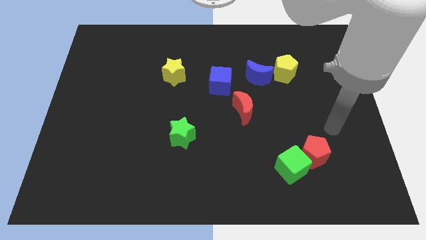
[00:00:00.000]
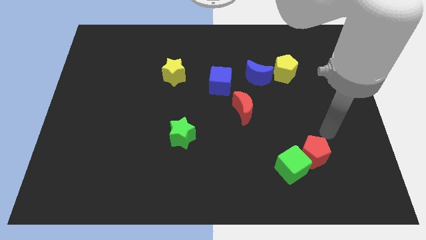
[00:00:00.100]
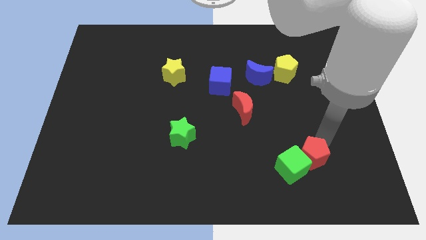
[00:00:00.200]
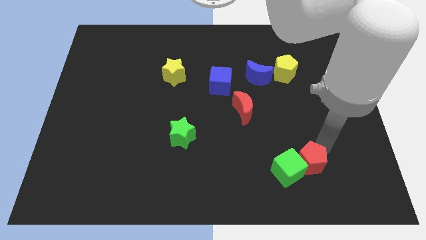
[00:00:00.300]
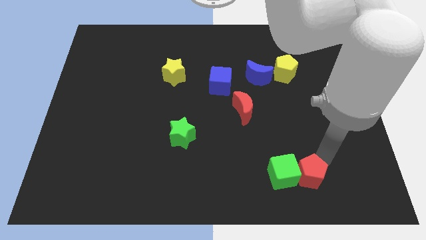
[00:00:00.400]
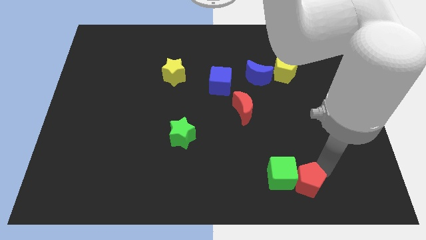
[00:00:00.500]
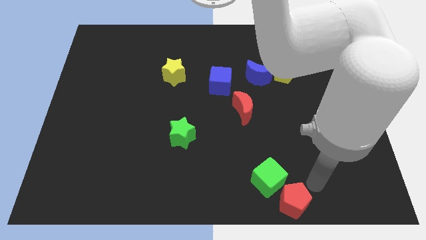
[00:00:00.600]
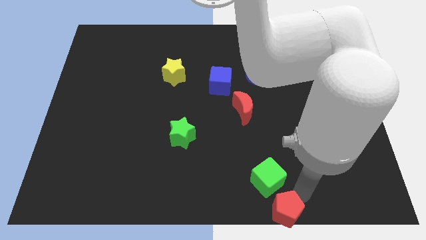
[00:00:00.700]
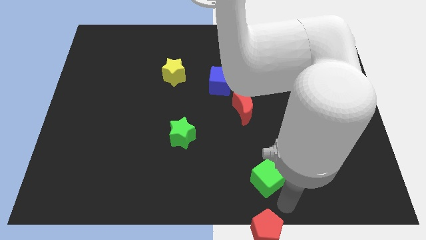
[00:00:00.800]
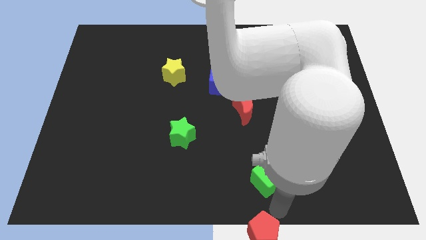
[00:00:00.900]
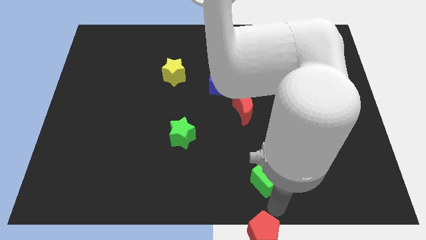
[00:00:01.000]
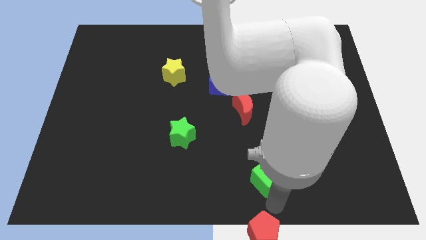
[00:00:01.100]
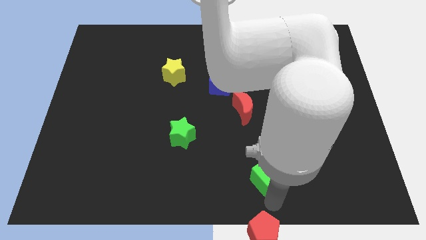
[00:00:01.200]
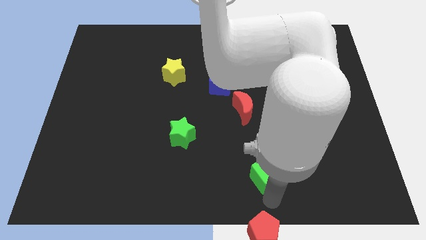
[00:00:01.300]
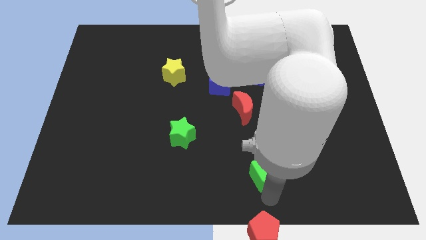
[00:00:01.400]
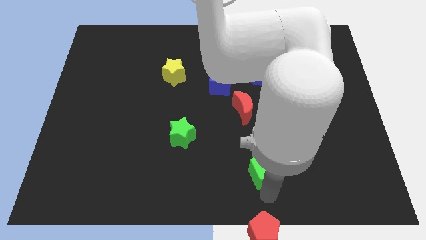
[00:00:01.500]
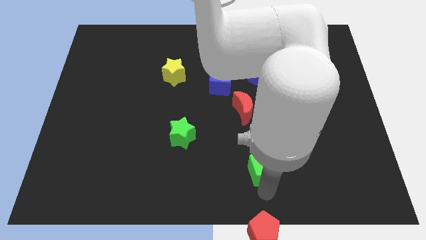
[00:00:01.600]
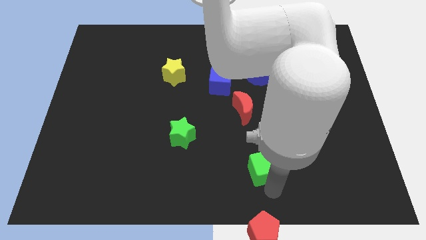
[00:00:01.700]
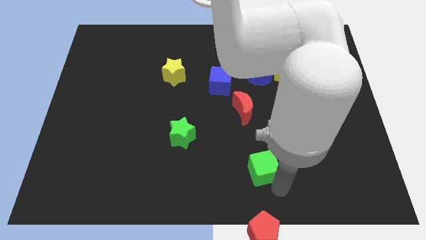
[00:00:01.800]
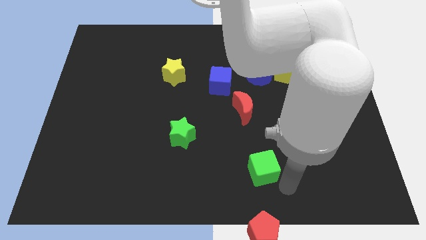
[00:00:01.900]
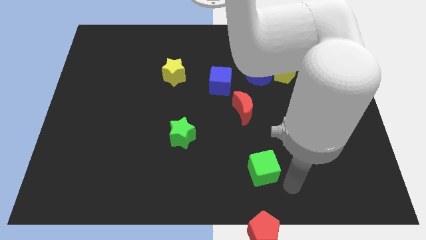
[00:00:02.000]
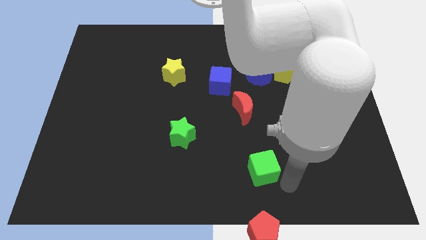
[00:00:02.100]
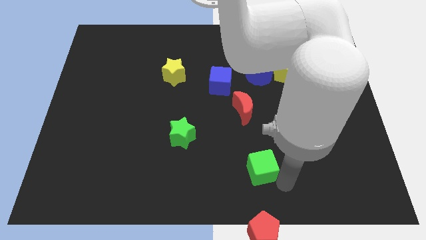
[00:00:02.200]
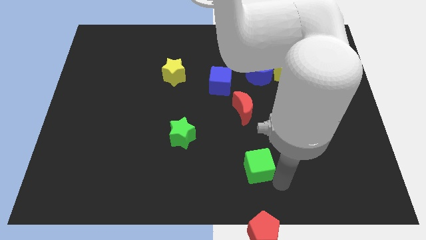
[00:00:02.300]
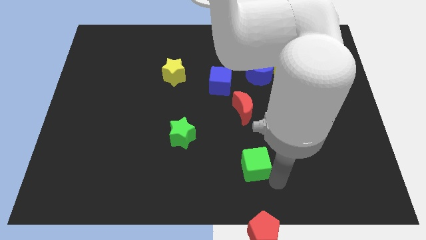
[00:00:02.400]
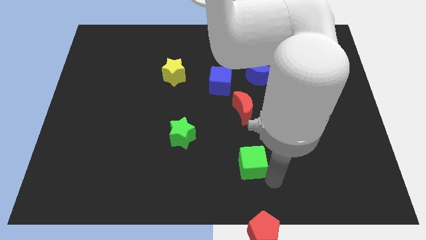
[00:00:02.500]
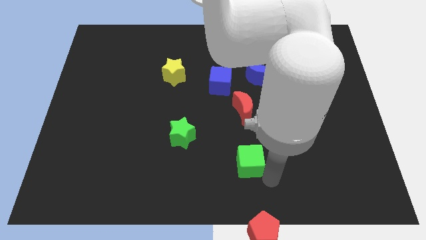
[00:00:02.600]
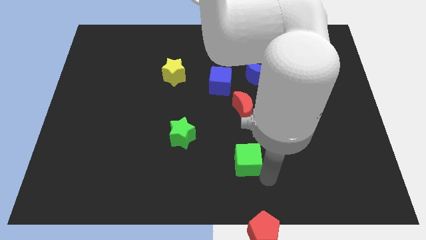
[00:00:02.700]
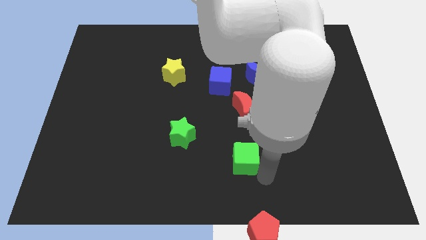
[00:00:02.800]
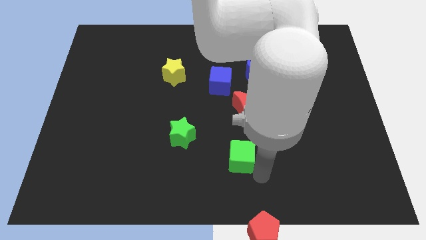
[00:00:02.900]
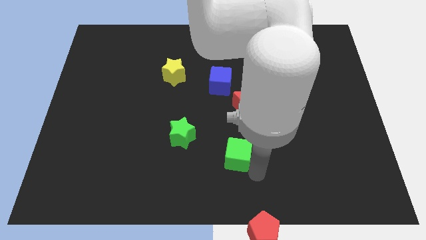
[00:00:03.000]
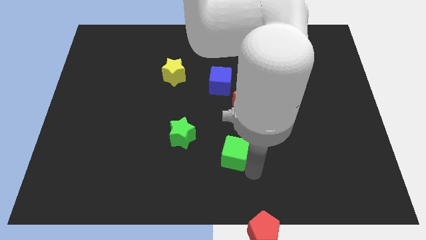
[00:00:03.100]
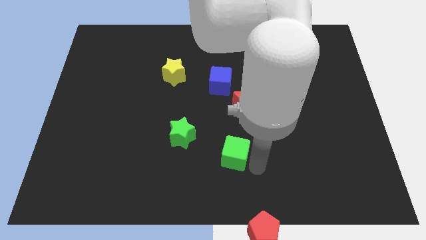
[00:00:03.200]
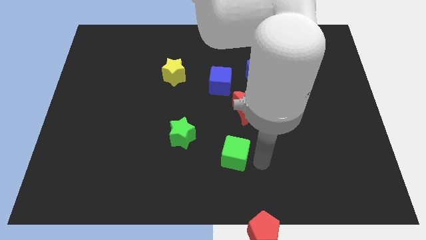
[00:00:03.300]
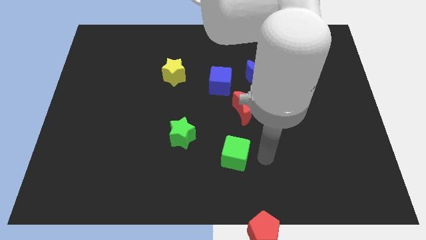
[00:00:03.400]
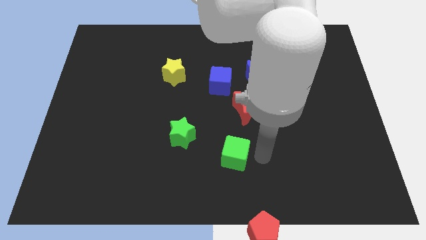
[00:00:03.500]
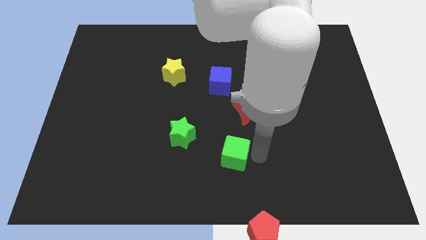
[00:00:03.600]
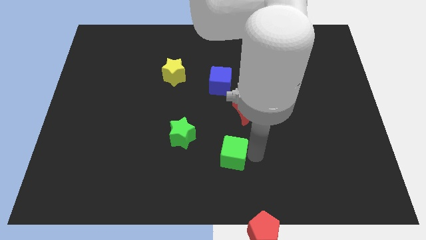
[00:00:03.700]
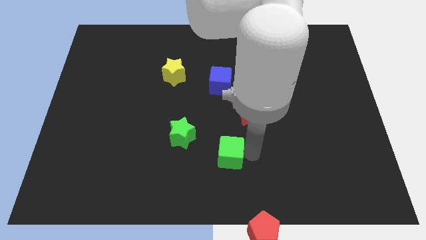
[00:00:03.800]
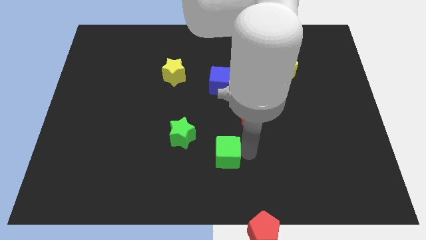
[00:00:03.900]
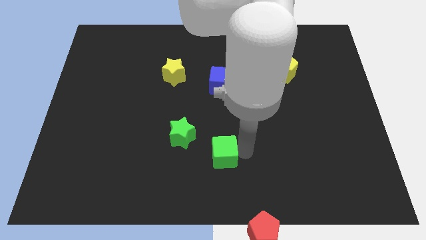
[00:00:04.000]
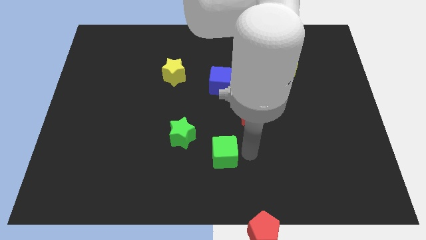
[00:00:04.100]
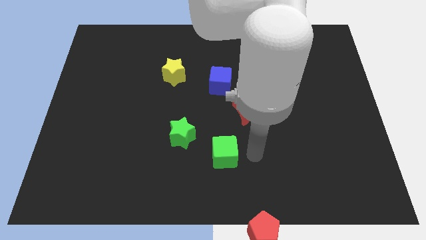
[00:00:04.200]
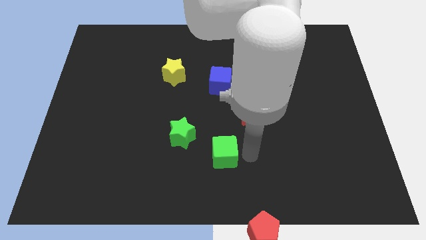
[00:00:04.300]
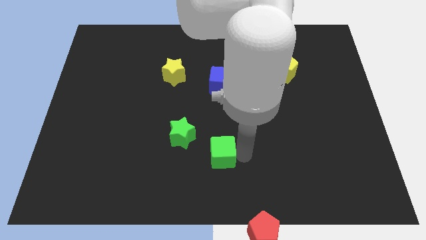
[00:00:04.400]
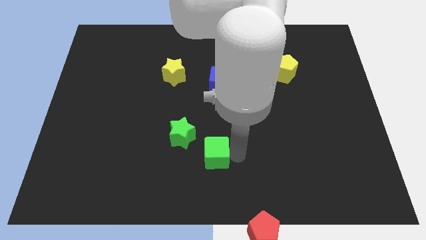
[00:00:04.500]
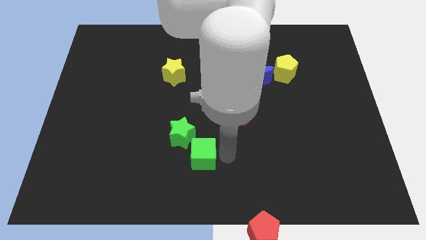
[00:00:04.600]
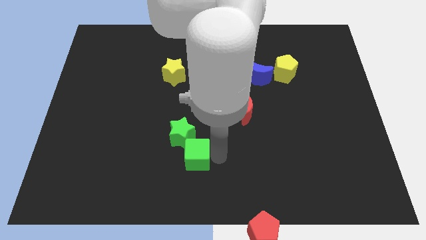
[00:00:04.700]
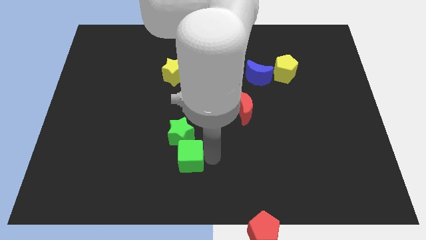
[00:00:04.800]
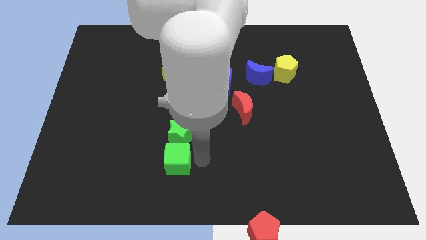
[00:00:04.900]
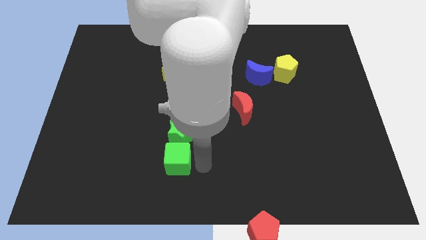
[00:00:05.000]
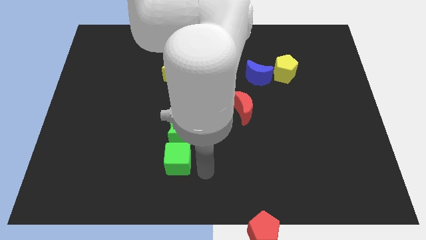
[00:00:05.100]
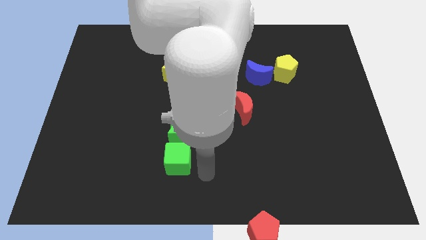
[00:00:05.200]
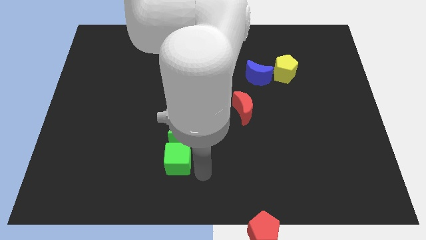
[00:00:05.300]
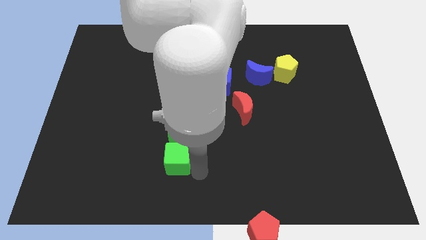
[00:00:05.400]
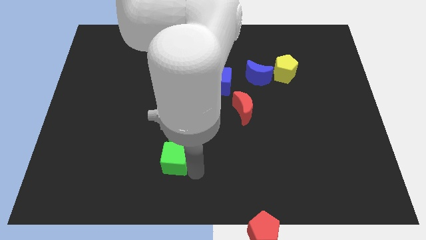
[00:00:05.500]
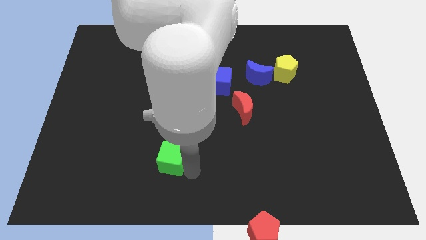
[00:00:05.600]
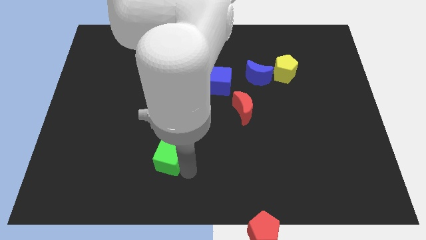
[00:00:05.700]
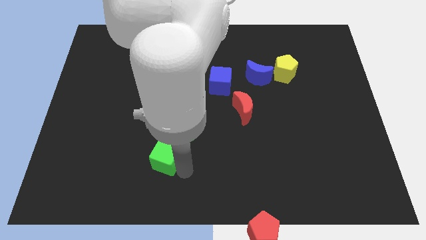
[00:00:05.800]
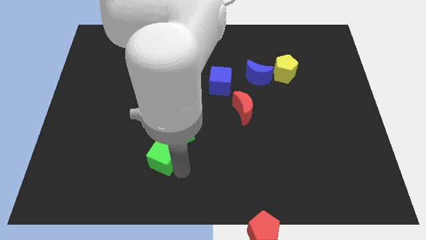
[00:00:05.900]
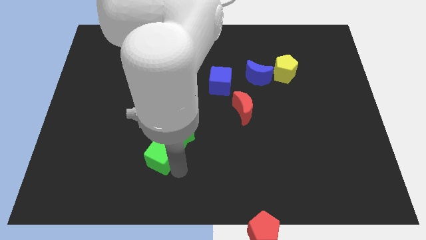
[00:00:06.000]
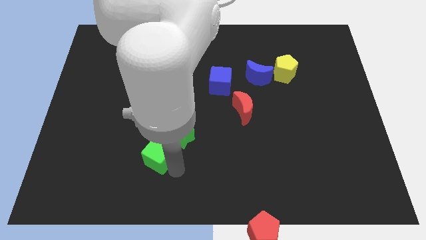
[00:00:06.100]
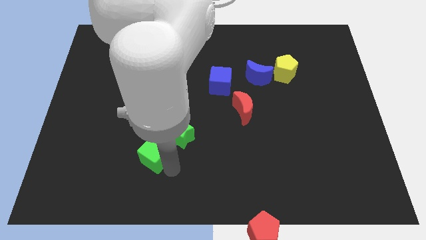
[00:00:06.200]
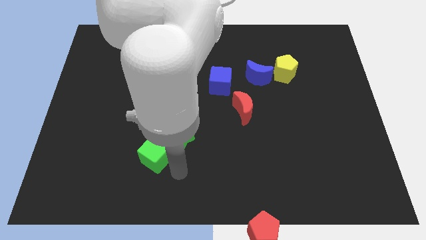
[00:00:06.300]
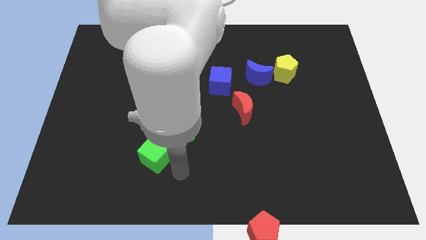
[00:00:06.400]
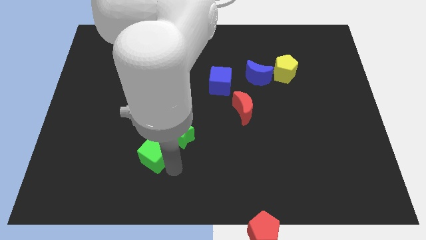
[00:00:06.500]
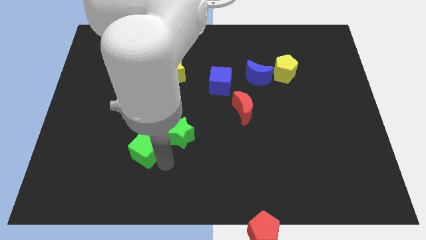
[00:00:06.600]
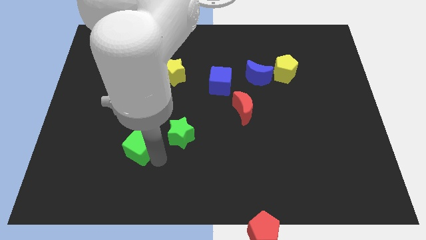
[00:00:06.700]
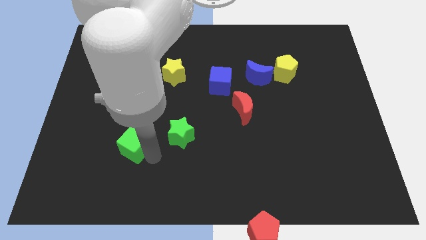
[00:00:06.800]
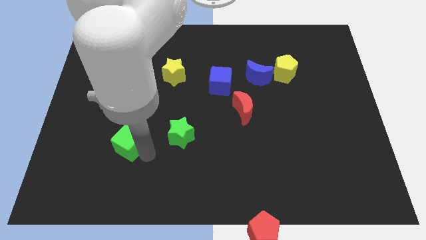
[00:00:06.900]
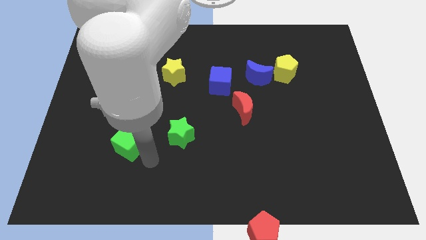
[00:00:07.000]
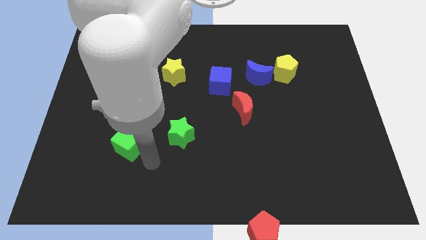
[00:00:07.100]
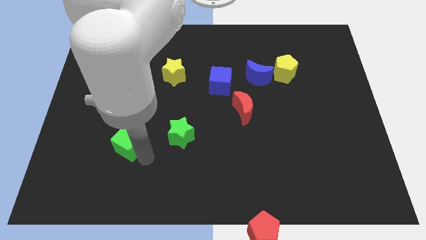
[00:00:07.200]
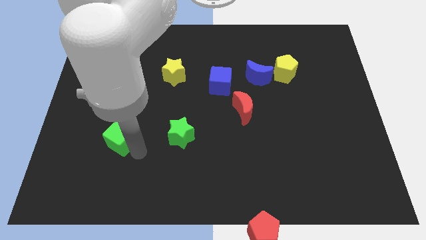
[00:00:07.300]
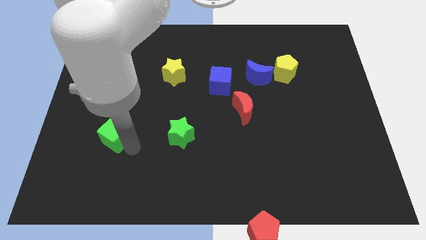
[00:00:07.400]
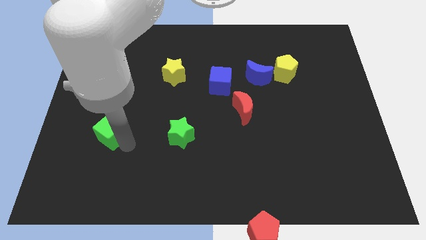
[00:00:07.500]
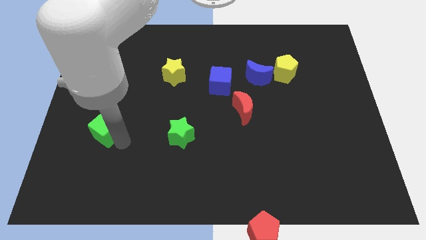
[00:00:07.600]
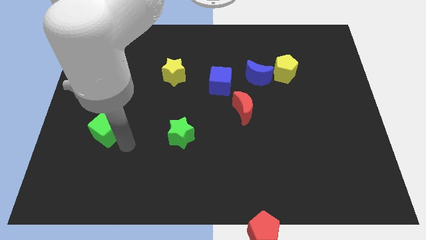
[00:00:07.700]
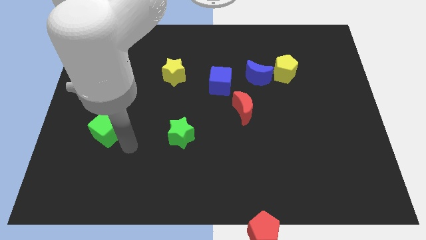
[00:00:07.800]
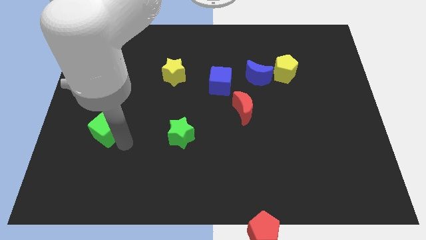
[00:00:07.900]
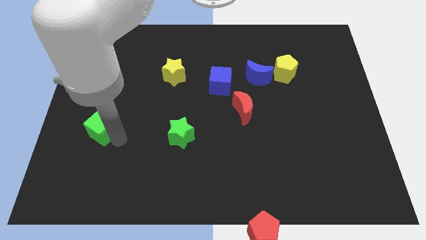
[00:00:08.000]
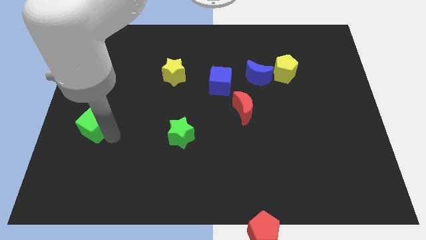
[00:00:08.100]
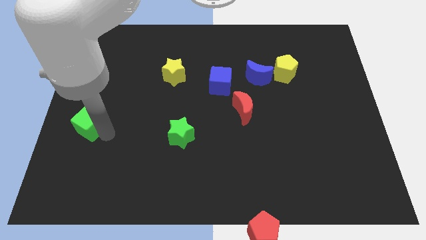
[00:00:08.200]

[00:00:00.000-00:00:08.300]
put the green cube to the left side of the board
